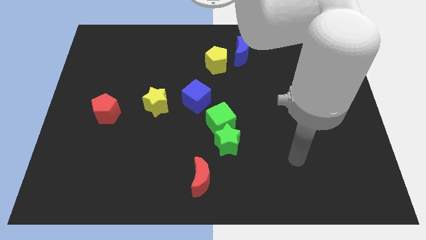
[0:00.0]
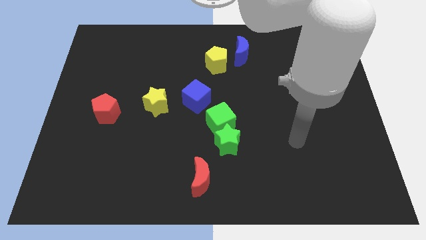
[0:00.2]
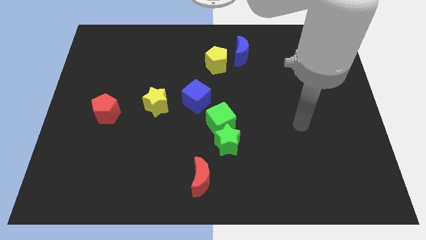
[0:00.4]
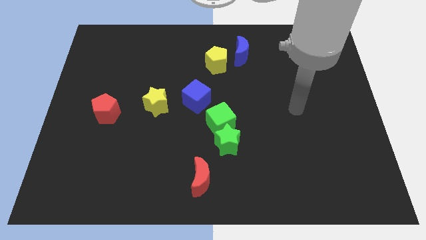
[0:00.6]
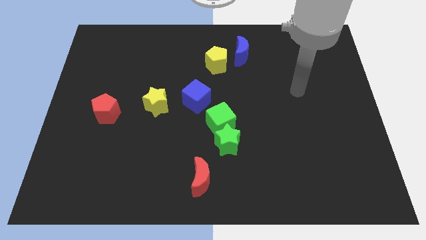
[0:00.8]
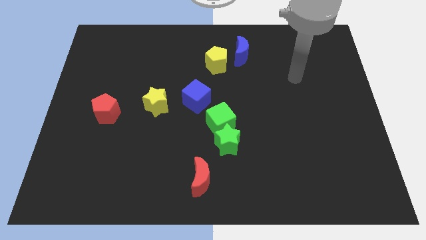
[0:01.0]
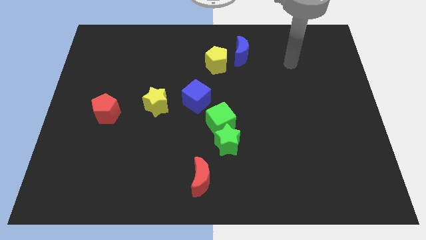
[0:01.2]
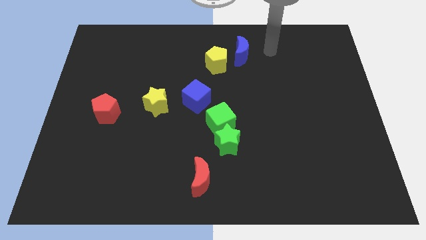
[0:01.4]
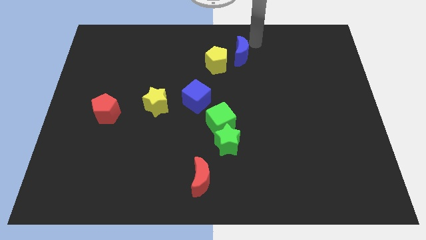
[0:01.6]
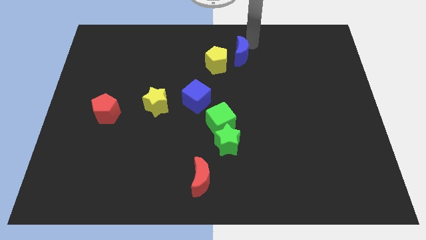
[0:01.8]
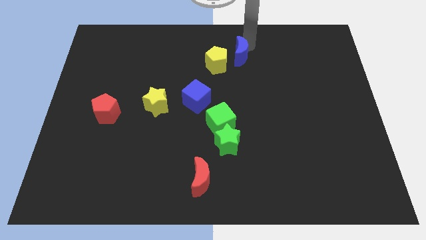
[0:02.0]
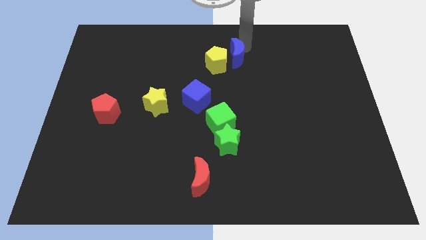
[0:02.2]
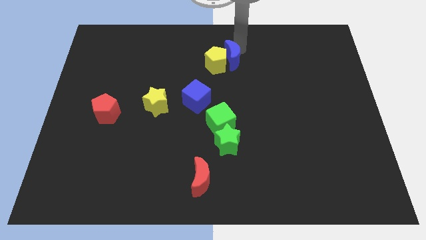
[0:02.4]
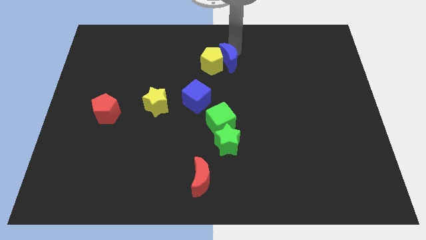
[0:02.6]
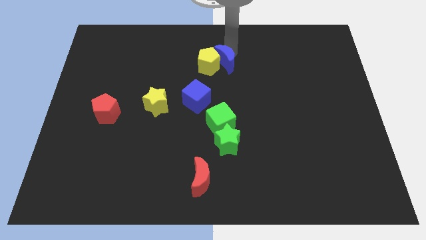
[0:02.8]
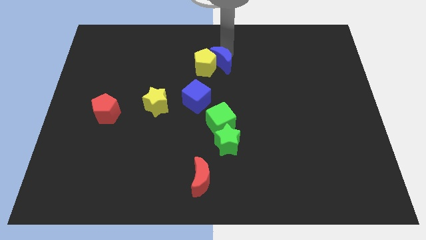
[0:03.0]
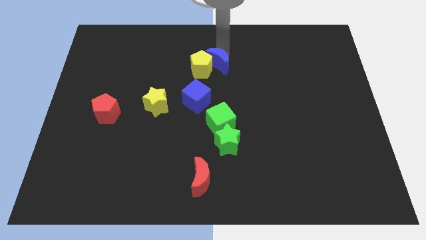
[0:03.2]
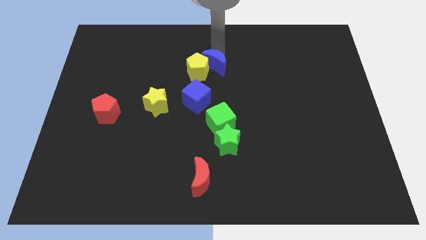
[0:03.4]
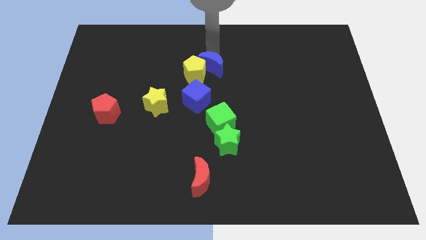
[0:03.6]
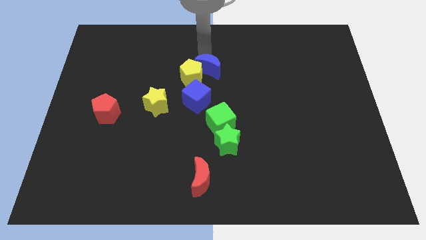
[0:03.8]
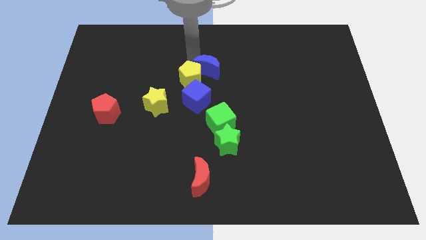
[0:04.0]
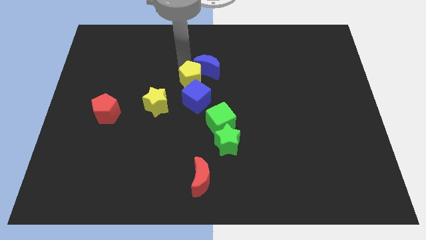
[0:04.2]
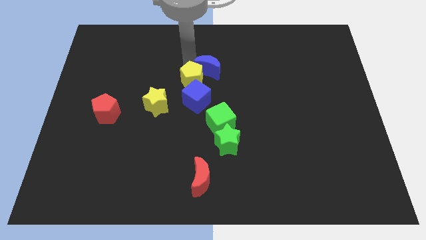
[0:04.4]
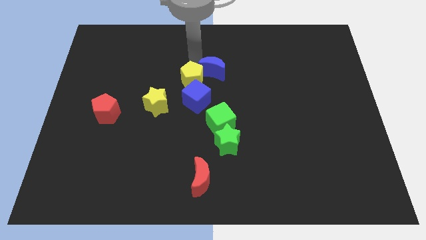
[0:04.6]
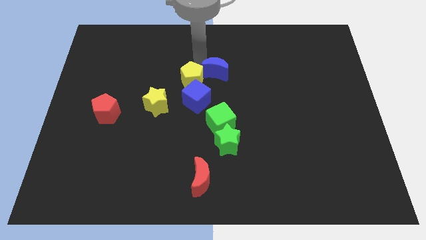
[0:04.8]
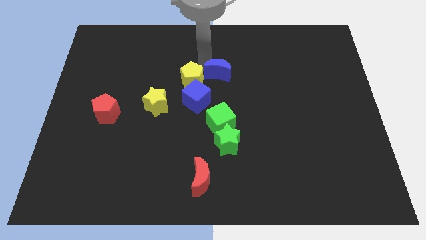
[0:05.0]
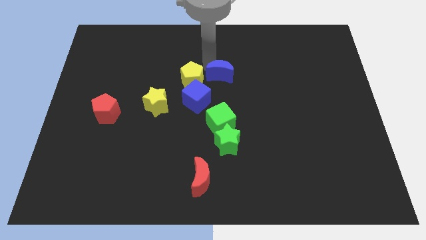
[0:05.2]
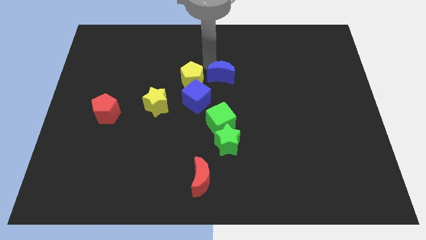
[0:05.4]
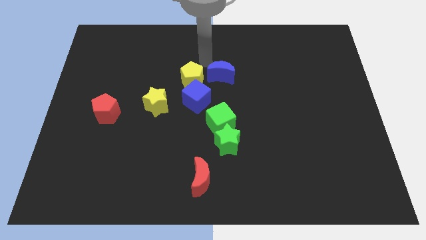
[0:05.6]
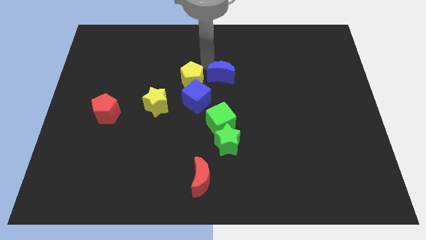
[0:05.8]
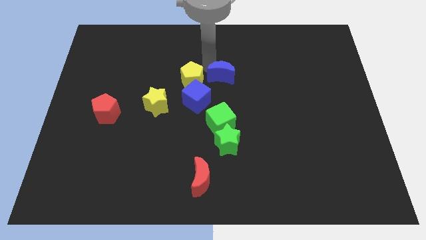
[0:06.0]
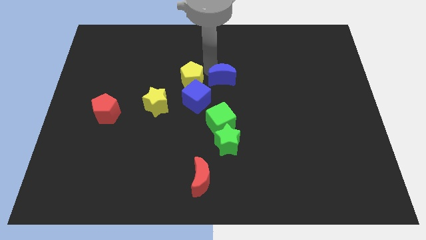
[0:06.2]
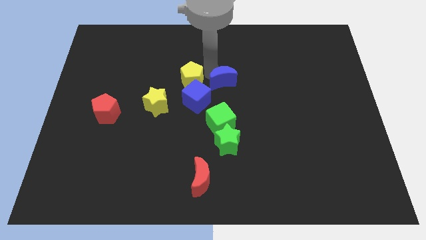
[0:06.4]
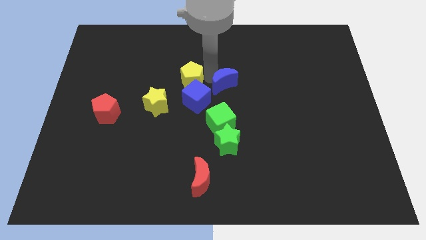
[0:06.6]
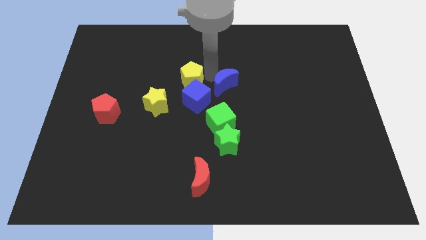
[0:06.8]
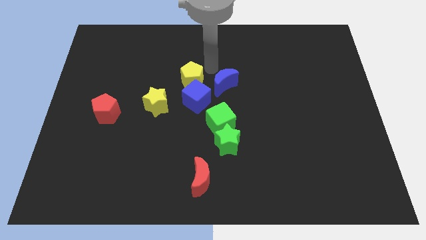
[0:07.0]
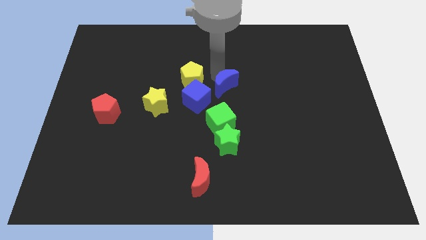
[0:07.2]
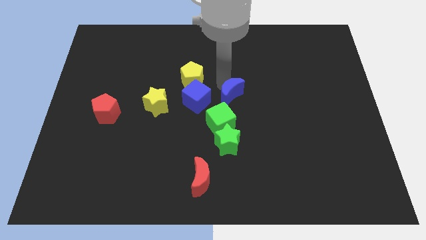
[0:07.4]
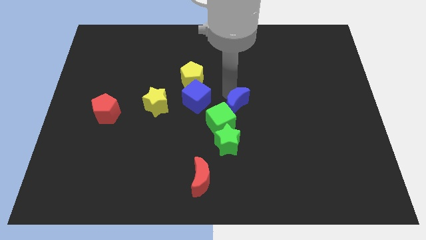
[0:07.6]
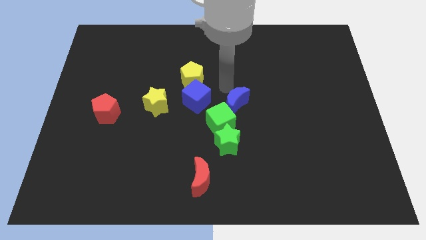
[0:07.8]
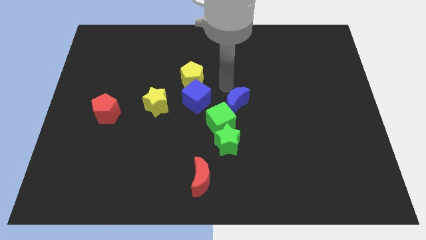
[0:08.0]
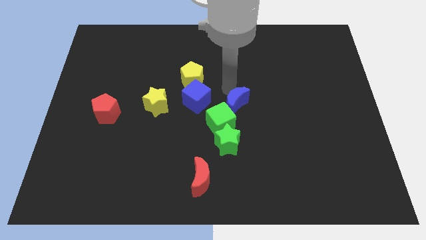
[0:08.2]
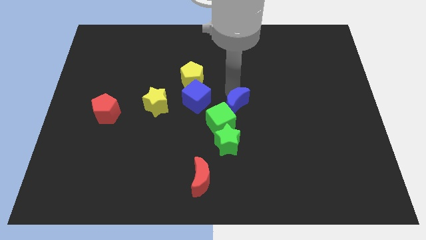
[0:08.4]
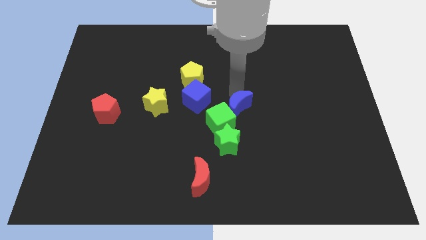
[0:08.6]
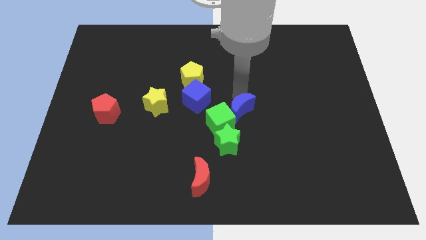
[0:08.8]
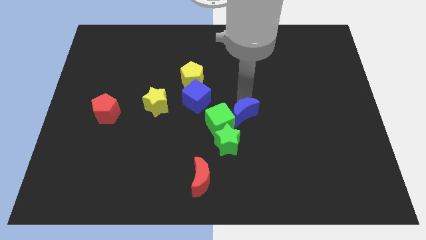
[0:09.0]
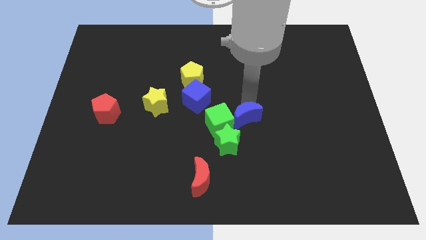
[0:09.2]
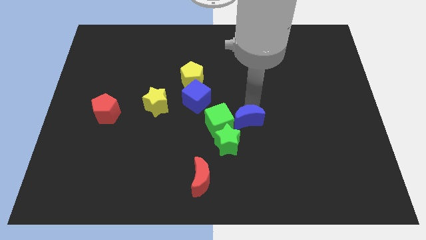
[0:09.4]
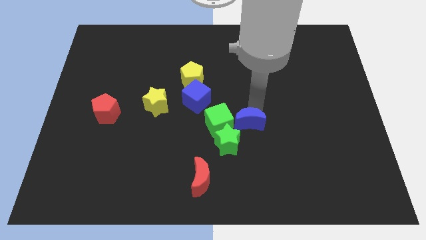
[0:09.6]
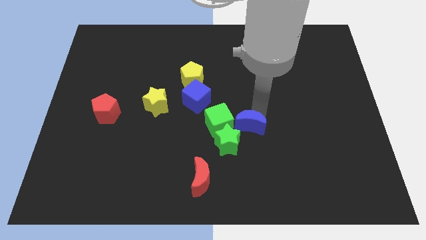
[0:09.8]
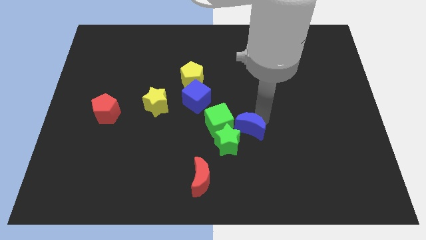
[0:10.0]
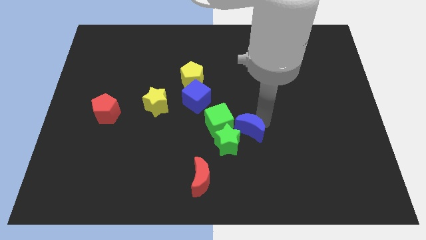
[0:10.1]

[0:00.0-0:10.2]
put the blue moon next to the green star

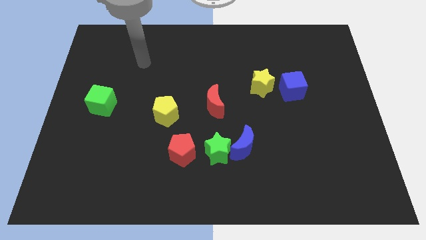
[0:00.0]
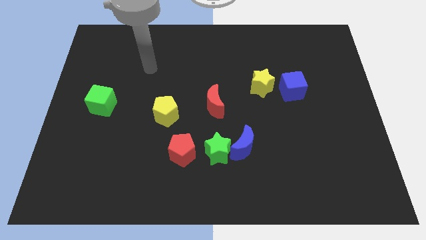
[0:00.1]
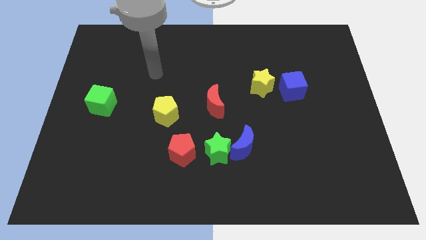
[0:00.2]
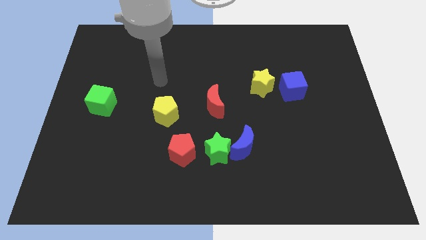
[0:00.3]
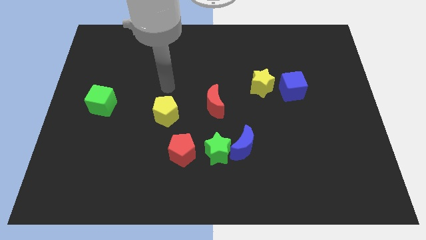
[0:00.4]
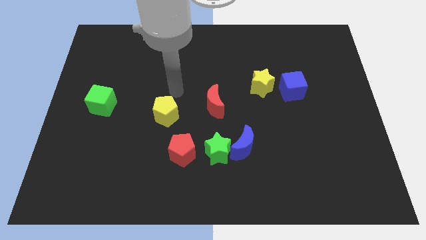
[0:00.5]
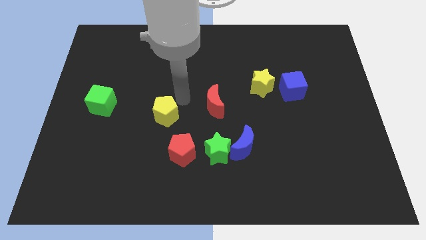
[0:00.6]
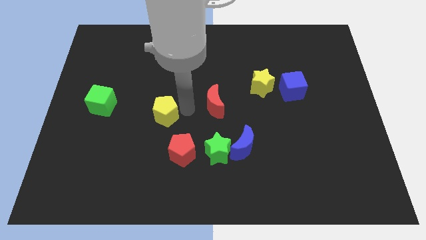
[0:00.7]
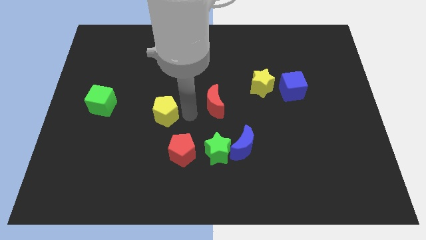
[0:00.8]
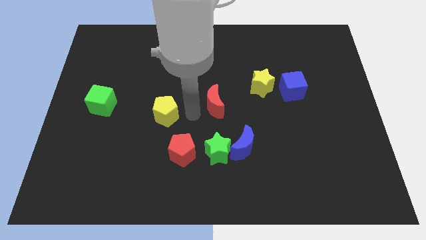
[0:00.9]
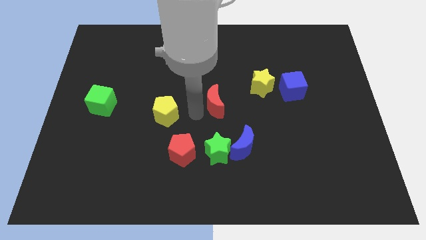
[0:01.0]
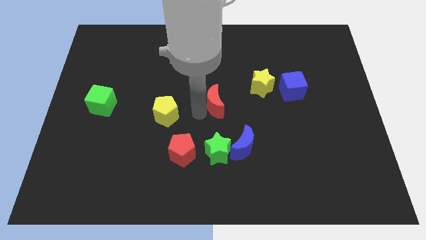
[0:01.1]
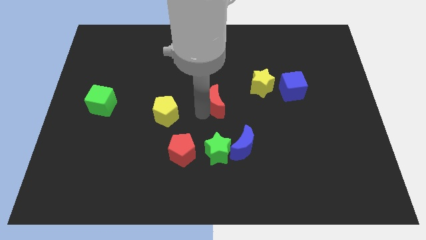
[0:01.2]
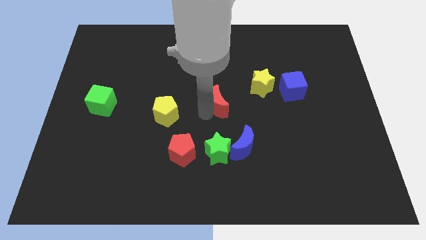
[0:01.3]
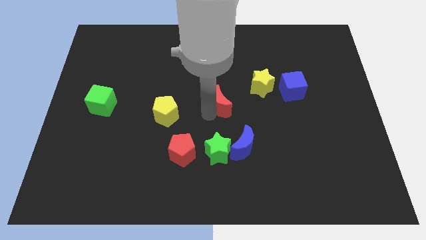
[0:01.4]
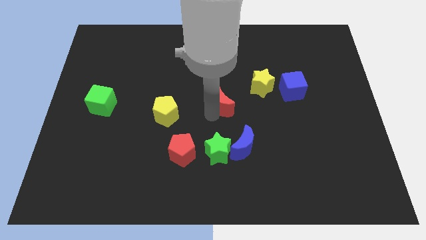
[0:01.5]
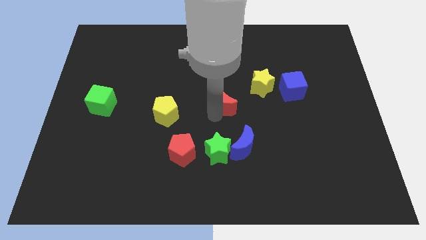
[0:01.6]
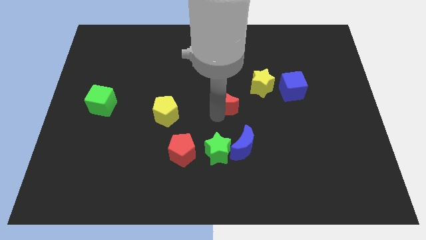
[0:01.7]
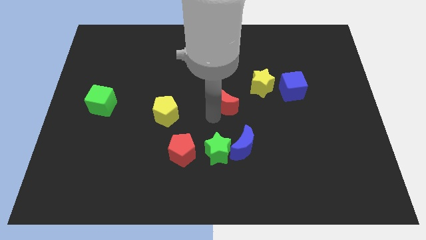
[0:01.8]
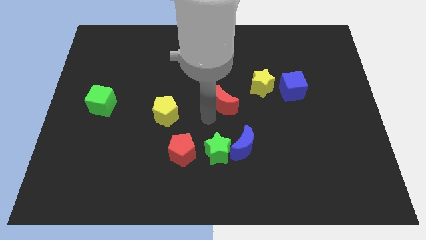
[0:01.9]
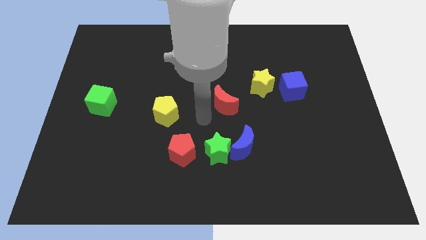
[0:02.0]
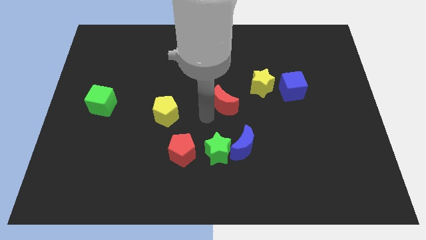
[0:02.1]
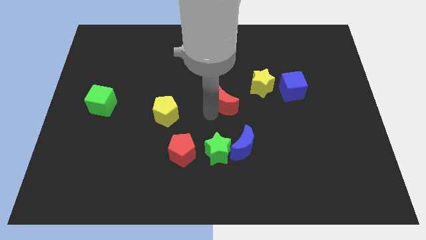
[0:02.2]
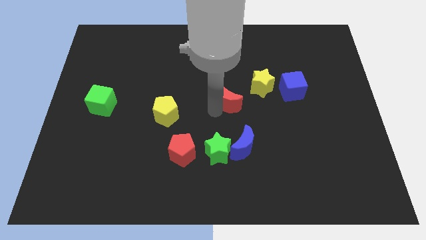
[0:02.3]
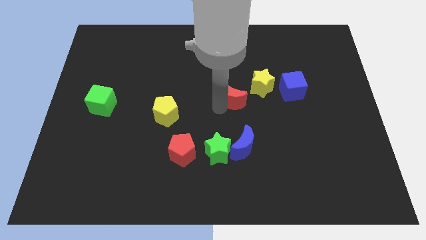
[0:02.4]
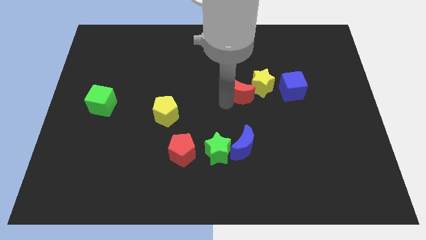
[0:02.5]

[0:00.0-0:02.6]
put the red moon next to the yellow star

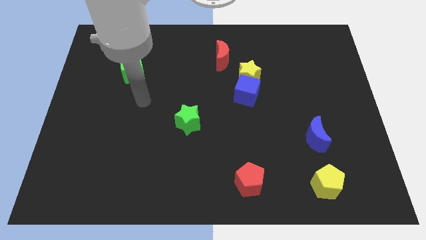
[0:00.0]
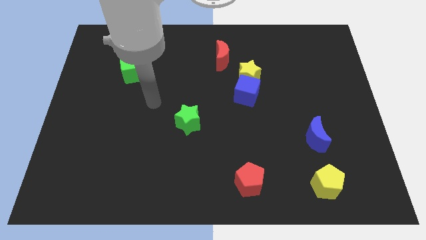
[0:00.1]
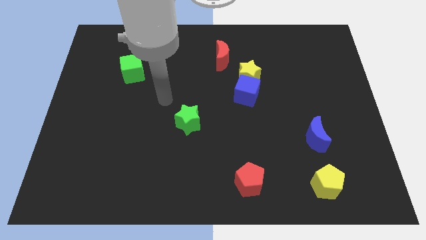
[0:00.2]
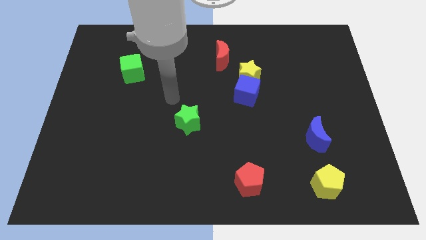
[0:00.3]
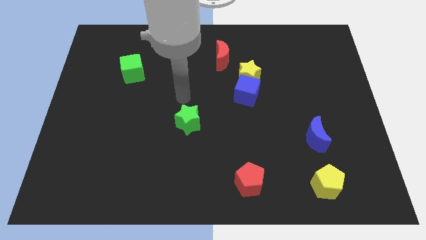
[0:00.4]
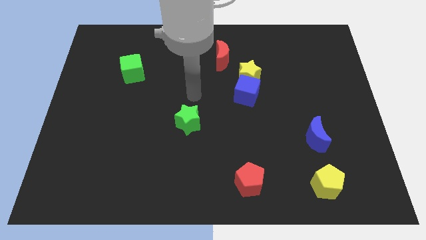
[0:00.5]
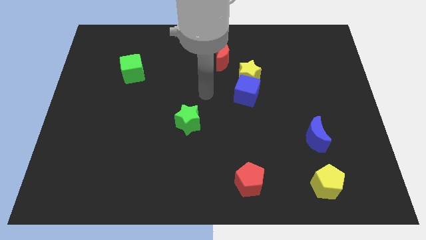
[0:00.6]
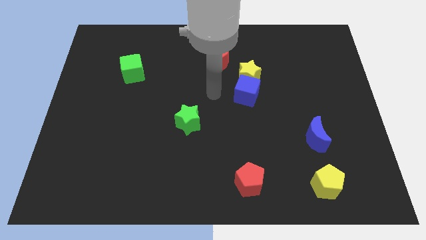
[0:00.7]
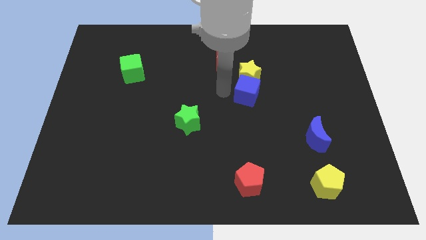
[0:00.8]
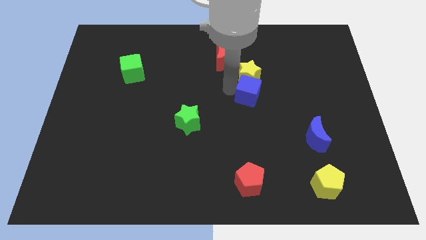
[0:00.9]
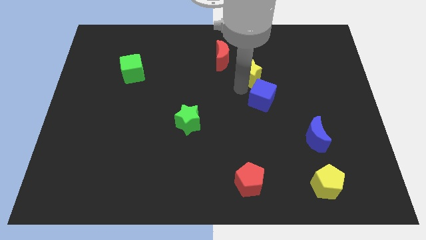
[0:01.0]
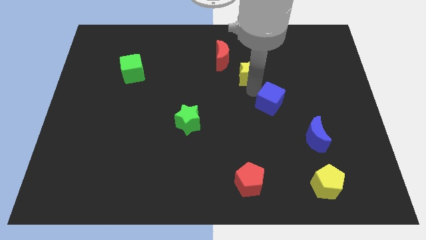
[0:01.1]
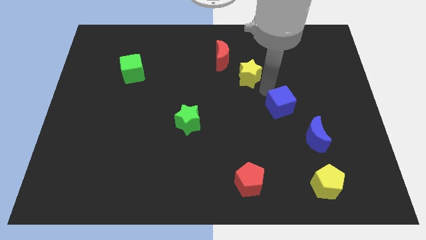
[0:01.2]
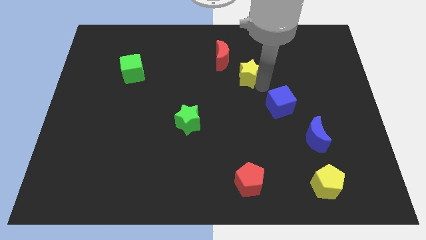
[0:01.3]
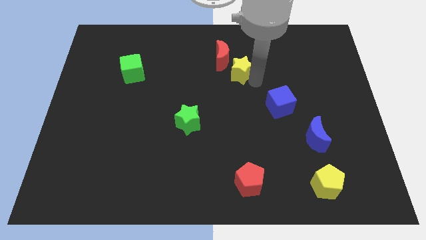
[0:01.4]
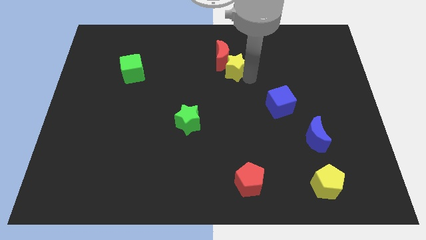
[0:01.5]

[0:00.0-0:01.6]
push the yellow star towards the red moon
